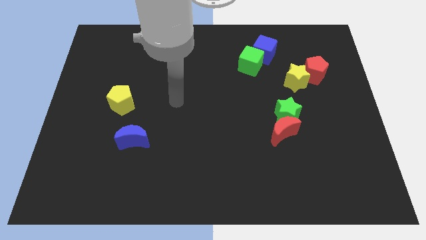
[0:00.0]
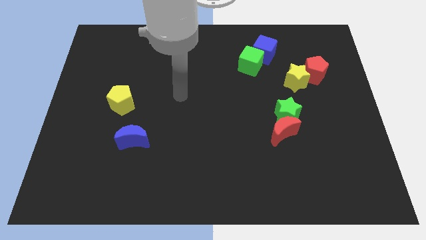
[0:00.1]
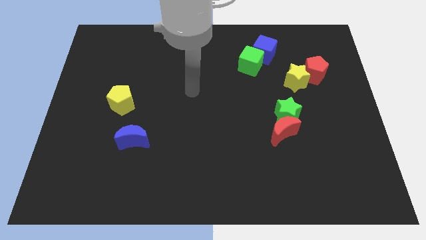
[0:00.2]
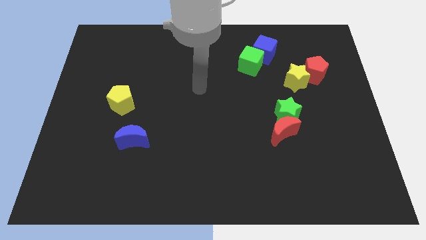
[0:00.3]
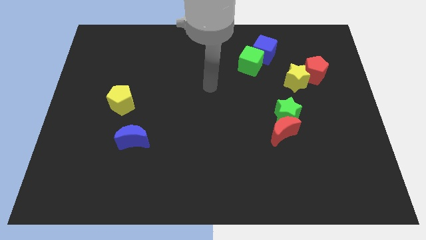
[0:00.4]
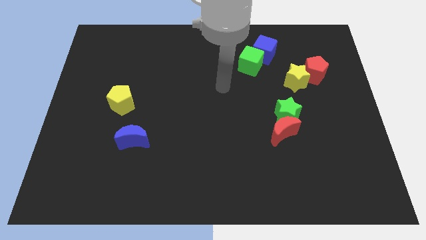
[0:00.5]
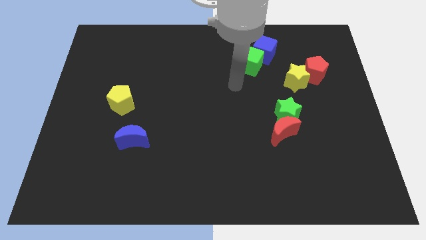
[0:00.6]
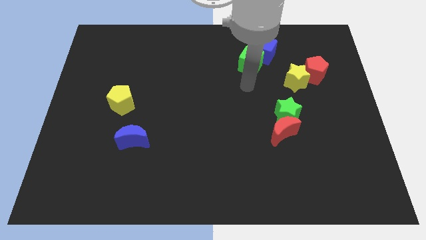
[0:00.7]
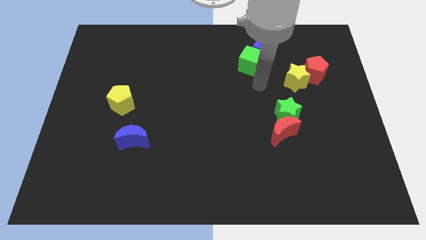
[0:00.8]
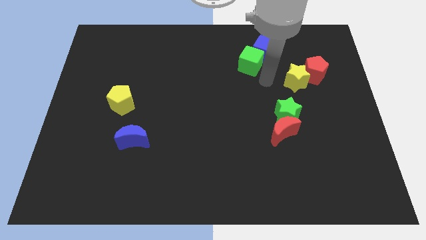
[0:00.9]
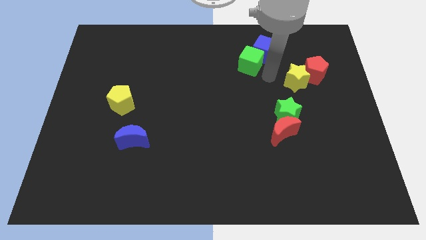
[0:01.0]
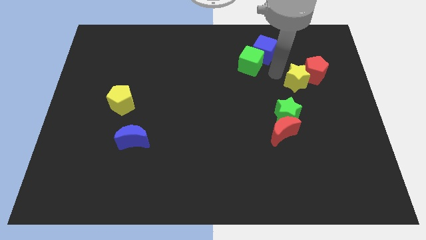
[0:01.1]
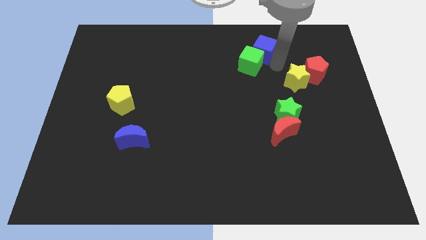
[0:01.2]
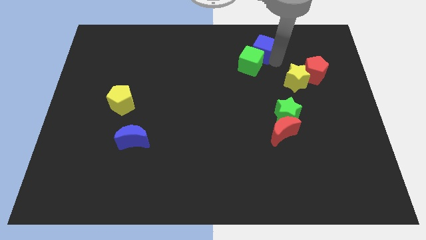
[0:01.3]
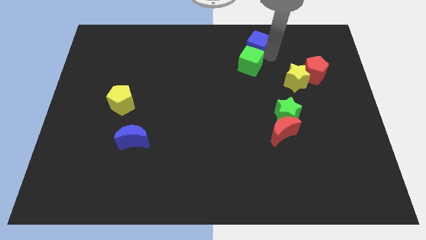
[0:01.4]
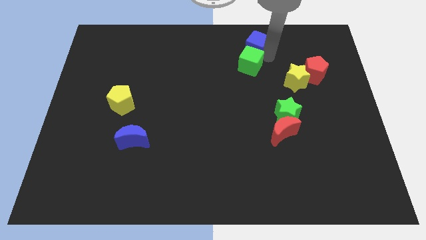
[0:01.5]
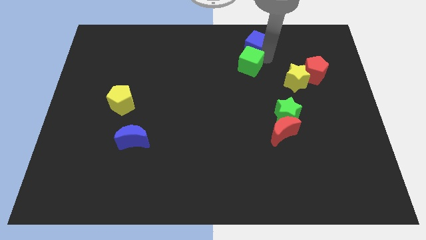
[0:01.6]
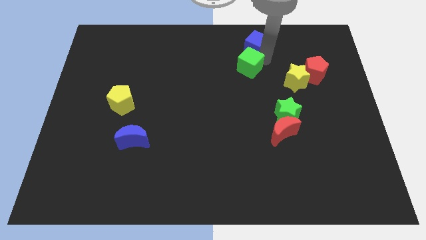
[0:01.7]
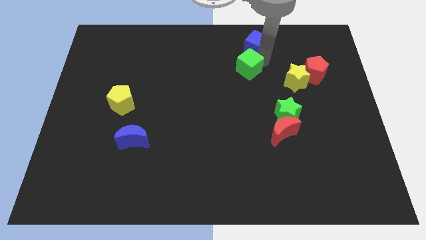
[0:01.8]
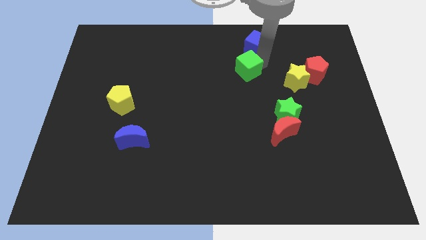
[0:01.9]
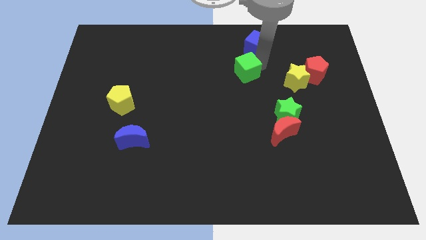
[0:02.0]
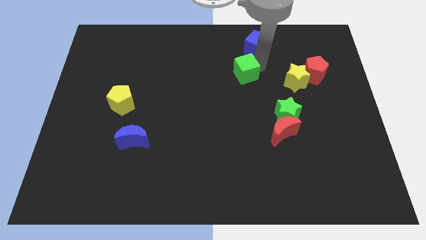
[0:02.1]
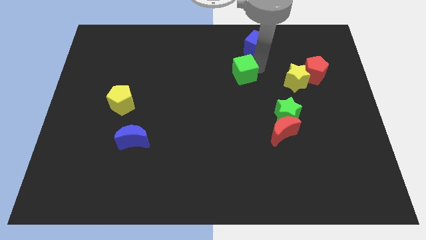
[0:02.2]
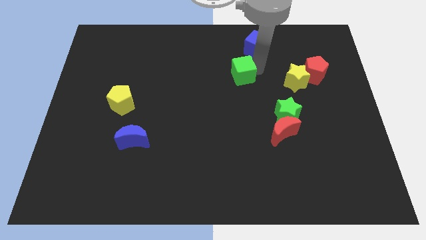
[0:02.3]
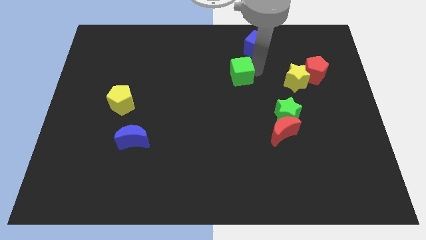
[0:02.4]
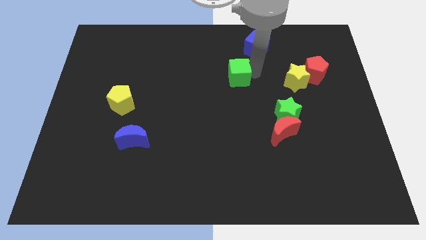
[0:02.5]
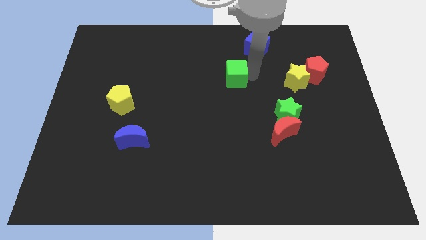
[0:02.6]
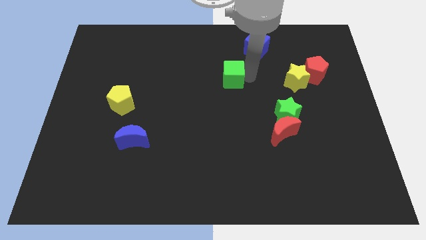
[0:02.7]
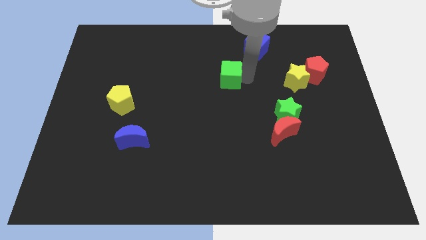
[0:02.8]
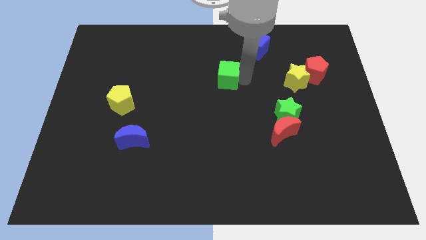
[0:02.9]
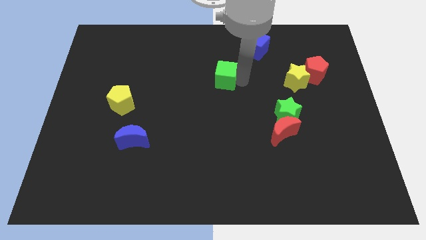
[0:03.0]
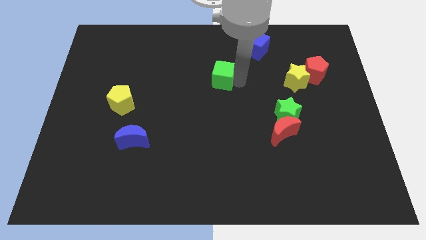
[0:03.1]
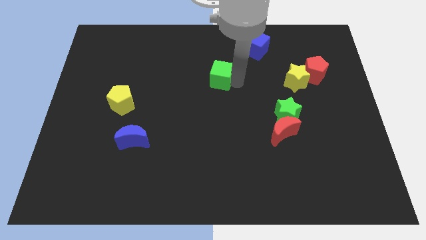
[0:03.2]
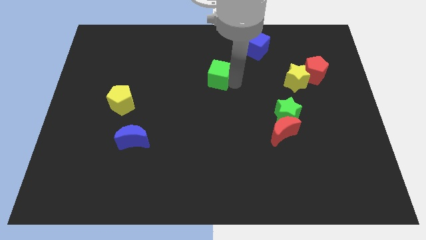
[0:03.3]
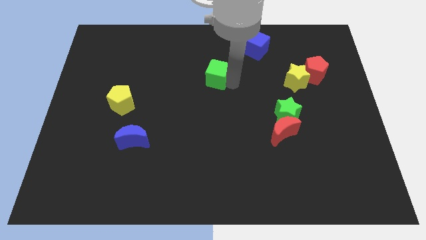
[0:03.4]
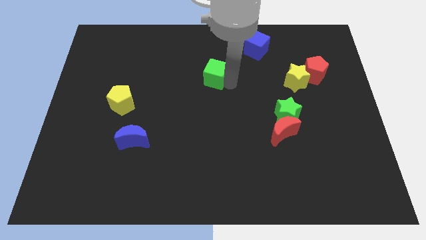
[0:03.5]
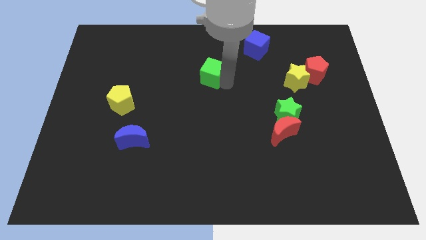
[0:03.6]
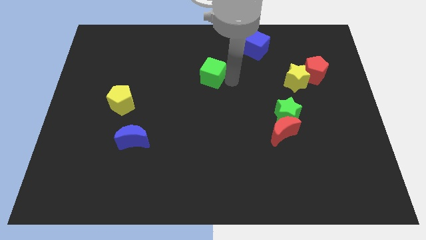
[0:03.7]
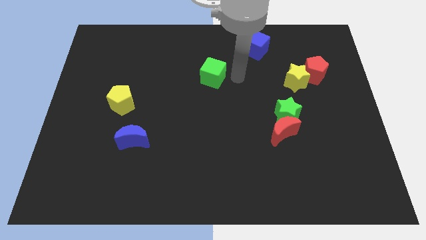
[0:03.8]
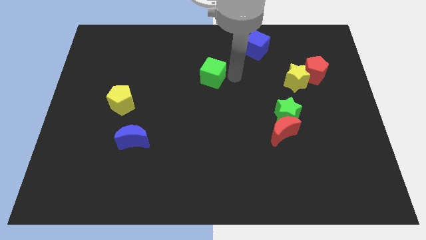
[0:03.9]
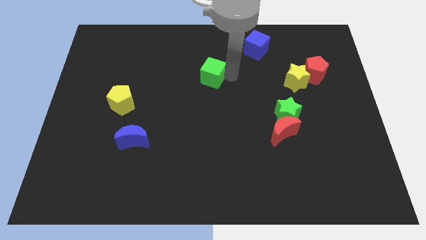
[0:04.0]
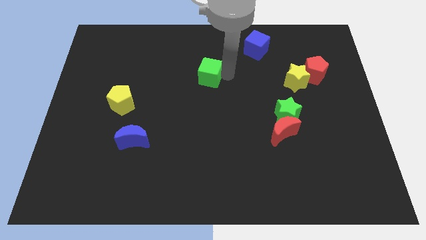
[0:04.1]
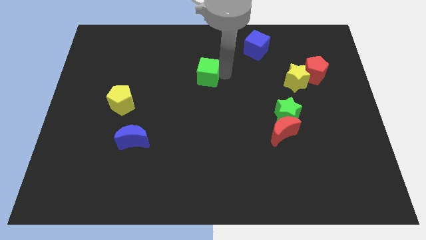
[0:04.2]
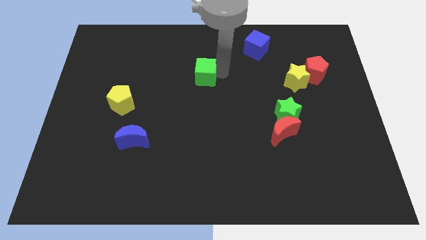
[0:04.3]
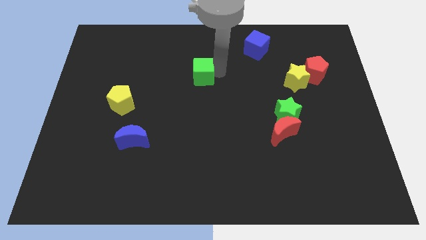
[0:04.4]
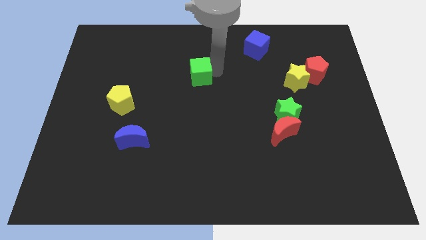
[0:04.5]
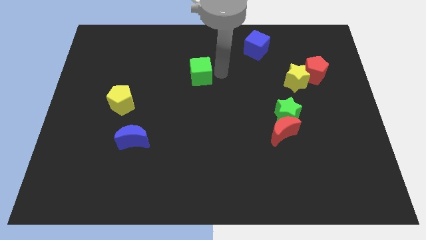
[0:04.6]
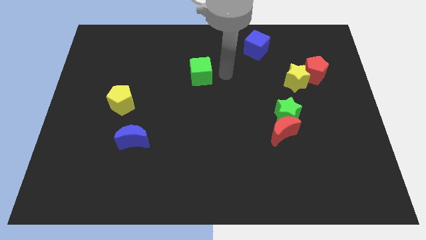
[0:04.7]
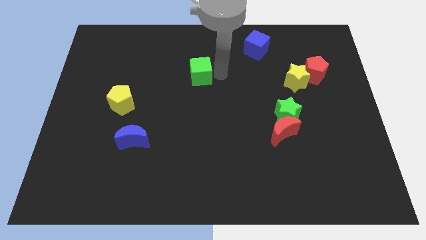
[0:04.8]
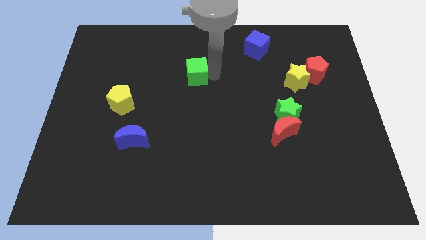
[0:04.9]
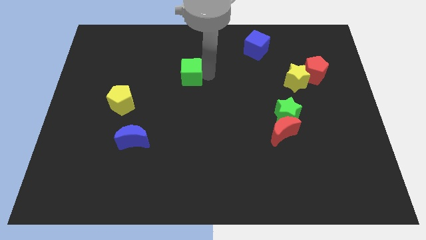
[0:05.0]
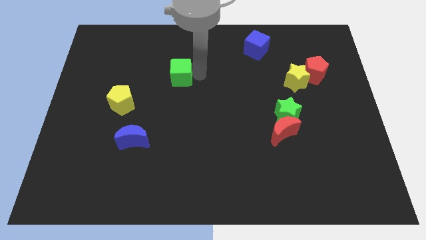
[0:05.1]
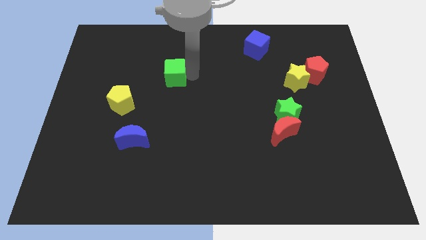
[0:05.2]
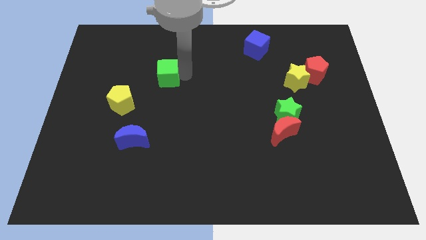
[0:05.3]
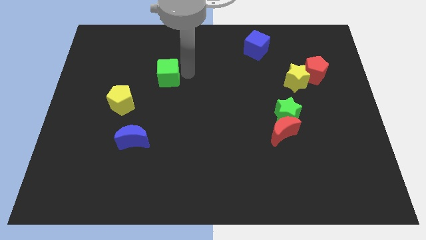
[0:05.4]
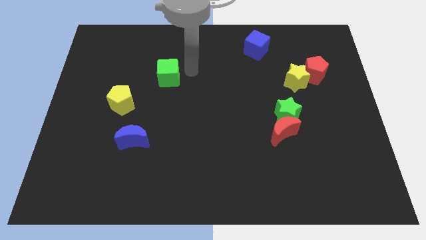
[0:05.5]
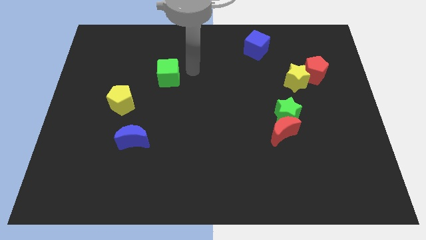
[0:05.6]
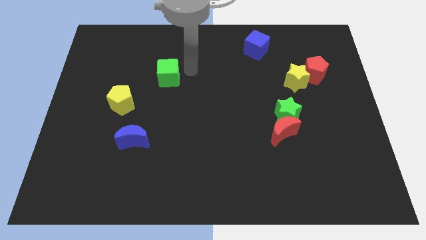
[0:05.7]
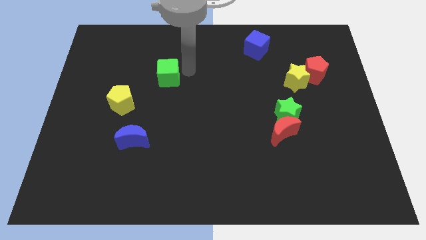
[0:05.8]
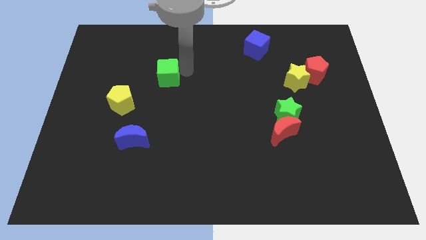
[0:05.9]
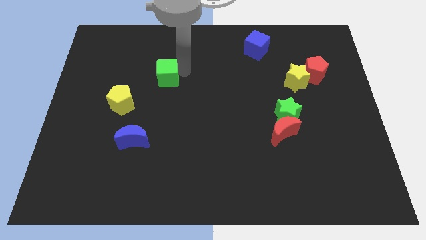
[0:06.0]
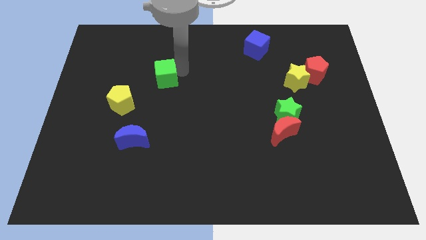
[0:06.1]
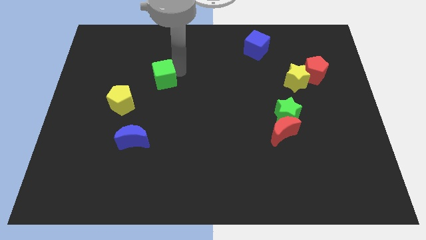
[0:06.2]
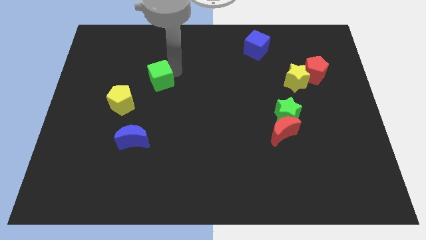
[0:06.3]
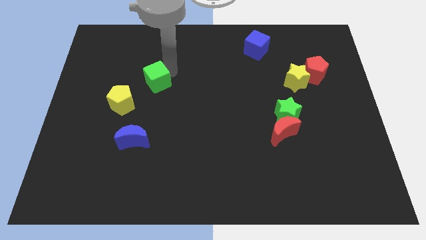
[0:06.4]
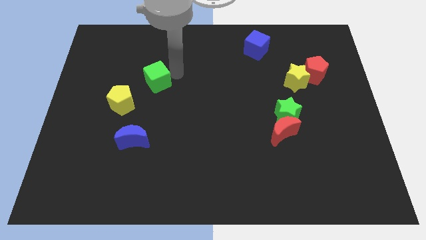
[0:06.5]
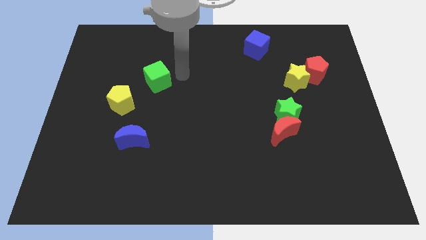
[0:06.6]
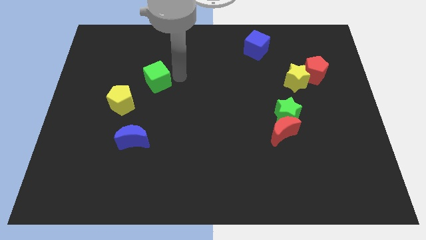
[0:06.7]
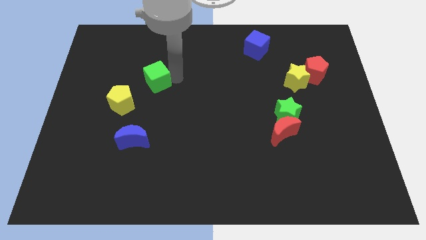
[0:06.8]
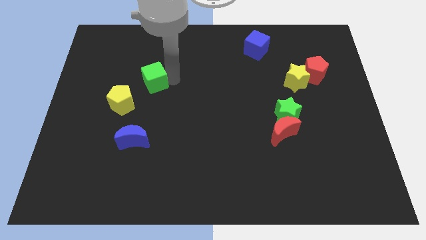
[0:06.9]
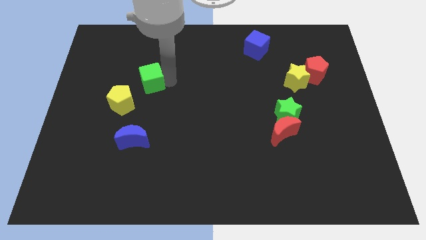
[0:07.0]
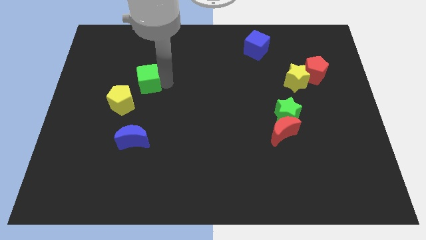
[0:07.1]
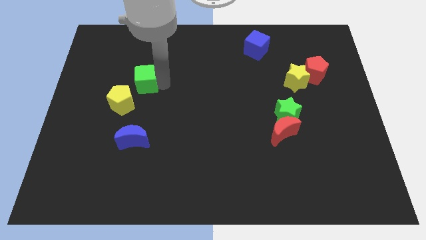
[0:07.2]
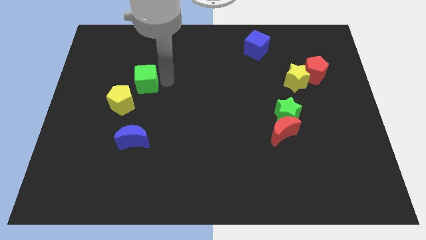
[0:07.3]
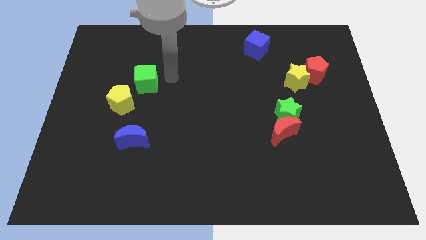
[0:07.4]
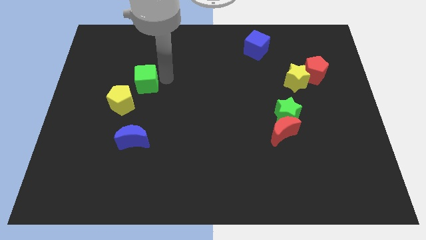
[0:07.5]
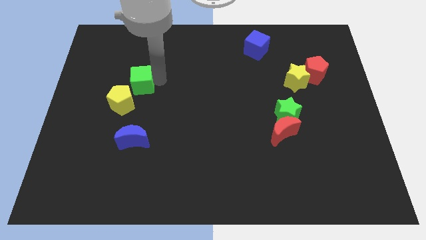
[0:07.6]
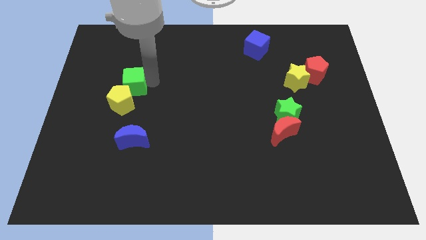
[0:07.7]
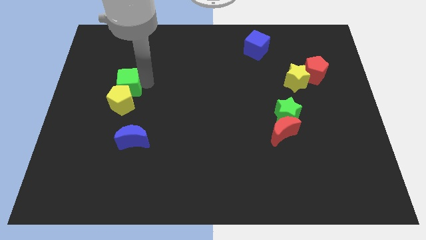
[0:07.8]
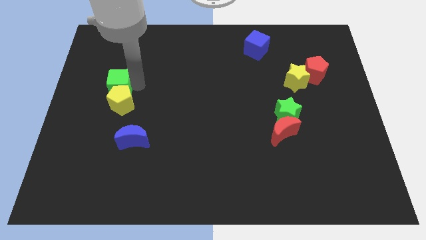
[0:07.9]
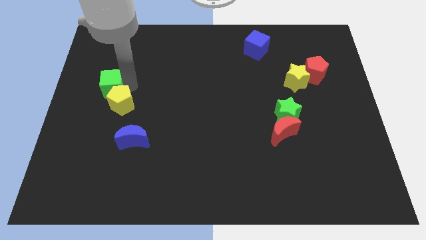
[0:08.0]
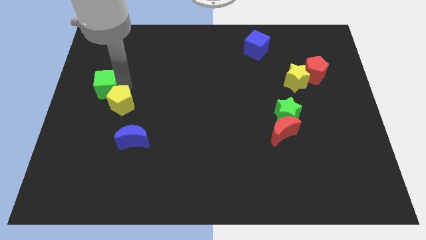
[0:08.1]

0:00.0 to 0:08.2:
push the green cube to the left side of the board
